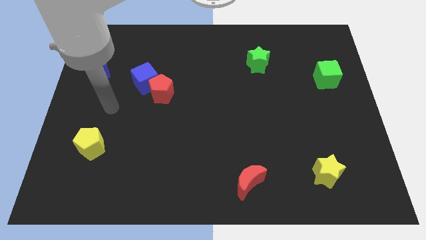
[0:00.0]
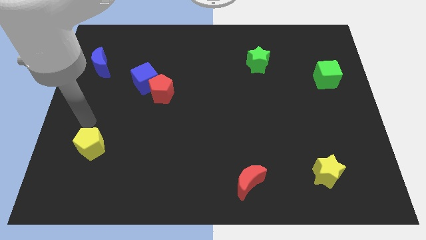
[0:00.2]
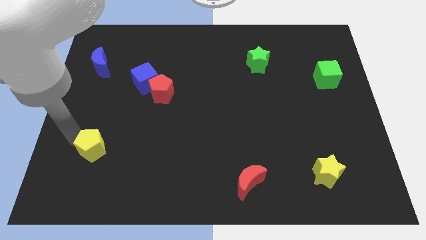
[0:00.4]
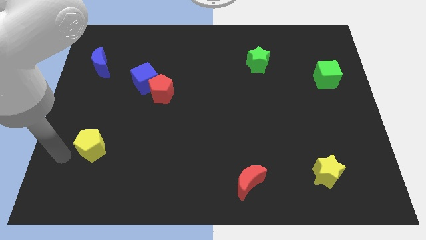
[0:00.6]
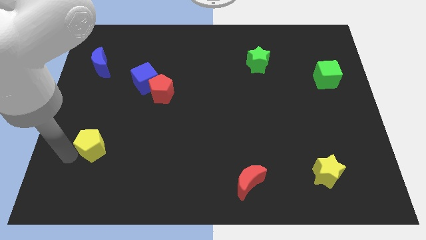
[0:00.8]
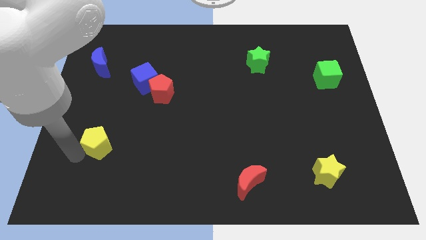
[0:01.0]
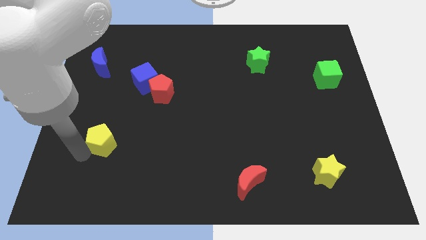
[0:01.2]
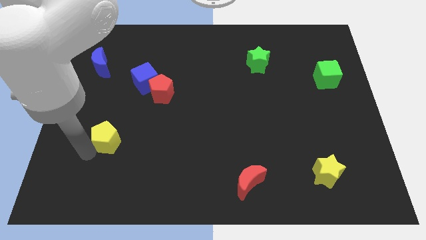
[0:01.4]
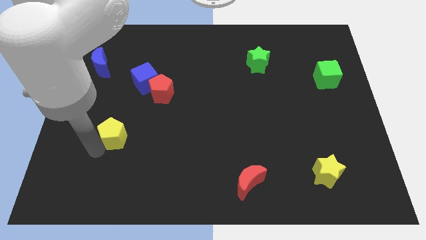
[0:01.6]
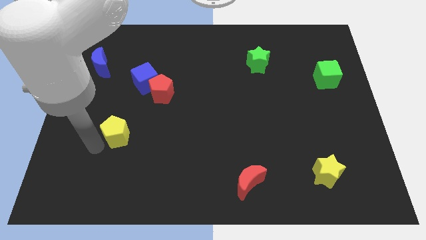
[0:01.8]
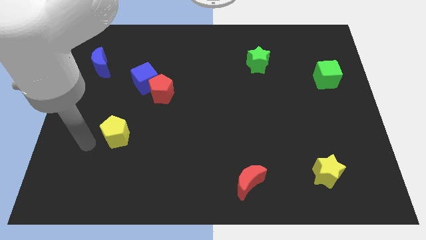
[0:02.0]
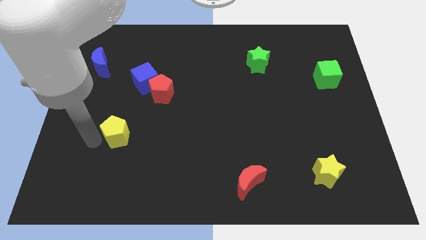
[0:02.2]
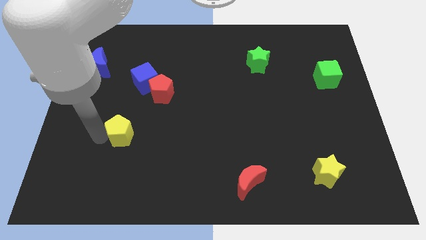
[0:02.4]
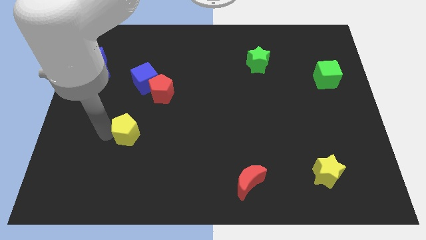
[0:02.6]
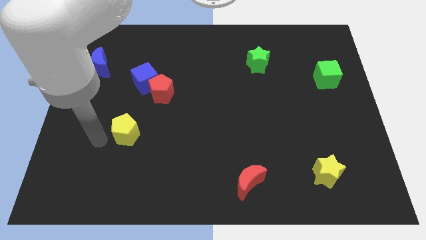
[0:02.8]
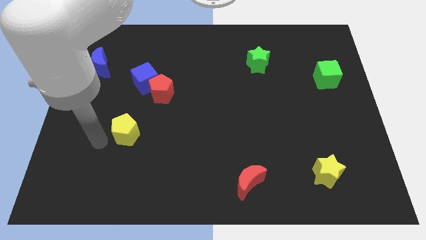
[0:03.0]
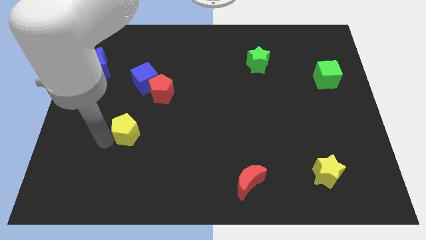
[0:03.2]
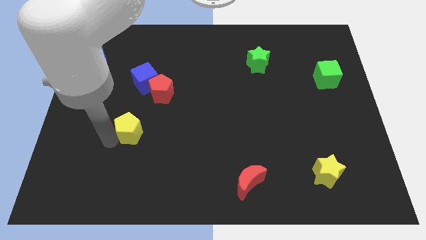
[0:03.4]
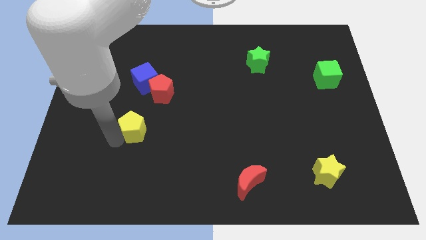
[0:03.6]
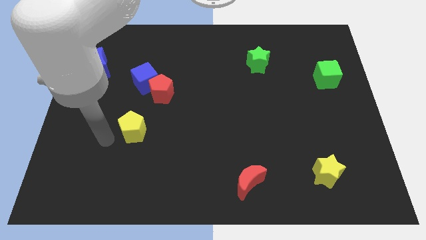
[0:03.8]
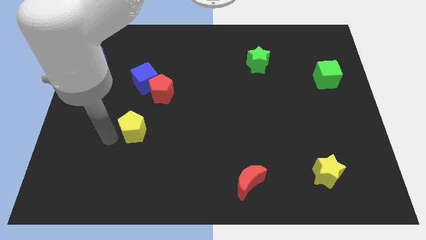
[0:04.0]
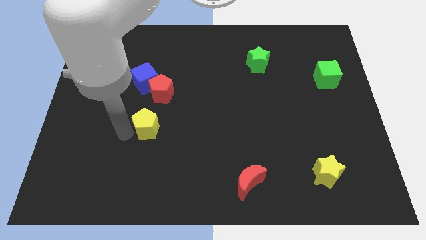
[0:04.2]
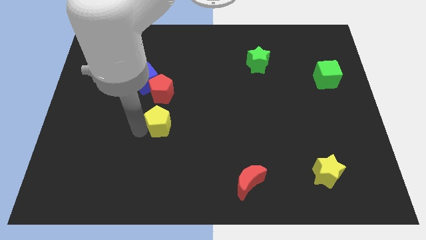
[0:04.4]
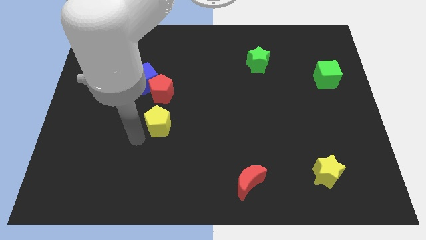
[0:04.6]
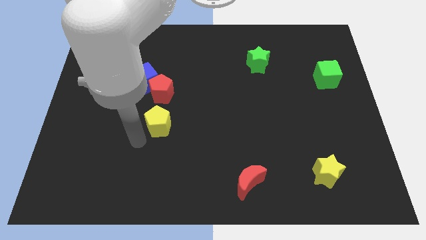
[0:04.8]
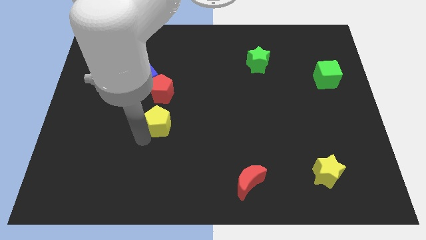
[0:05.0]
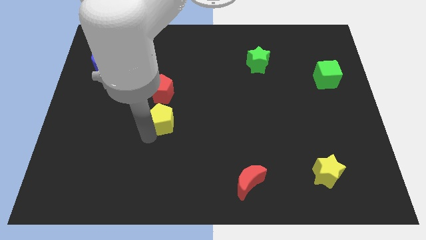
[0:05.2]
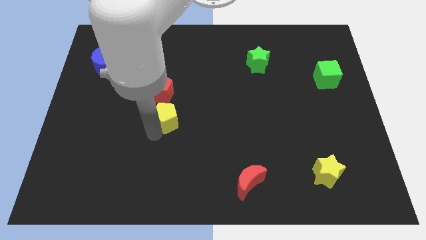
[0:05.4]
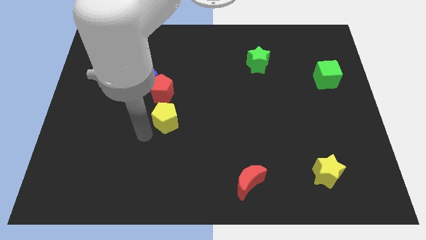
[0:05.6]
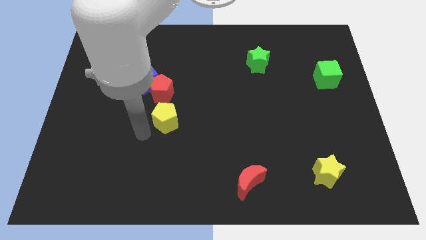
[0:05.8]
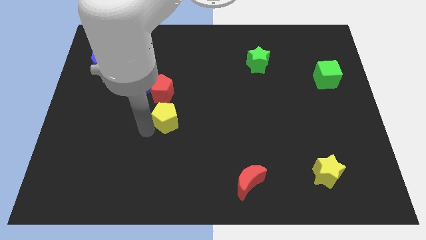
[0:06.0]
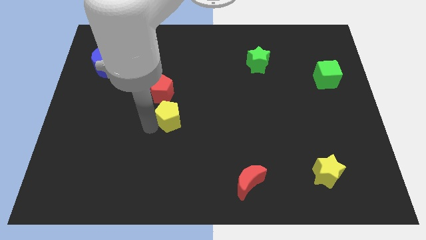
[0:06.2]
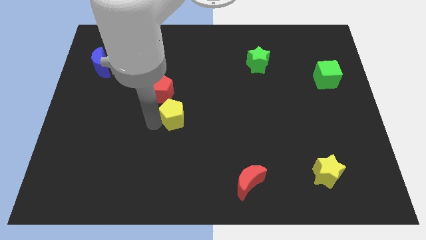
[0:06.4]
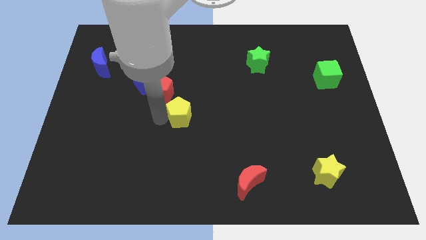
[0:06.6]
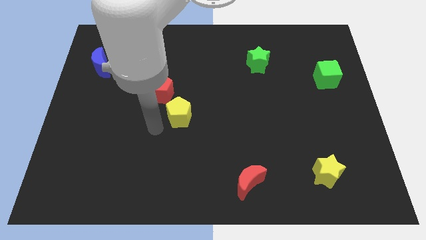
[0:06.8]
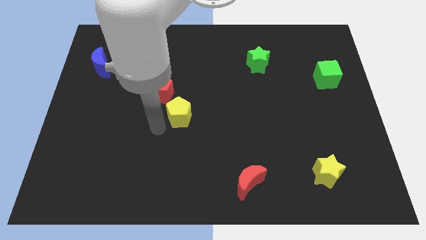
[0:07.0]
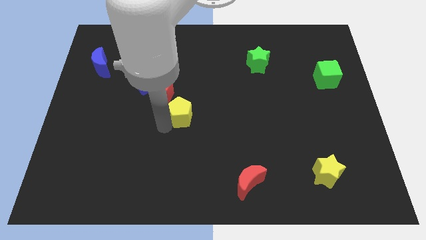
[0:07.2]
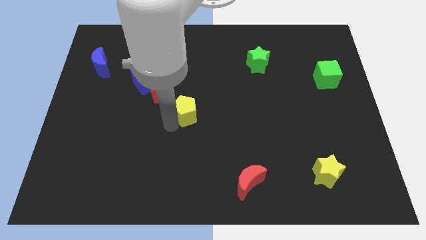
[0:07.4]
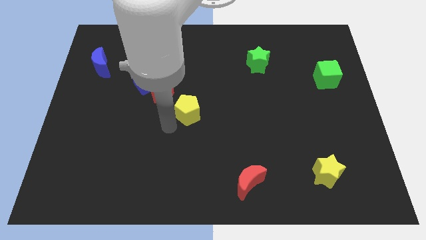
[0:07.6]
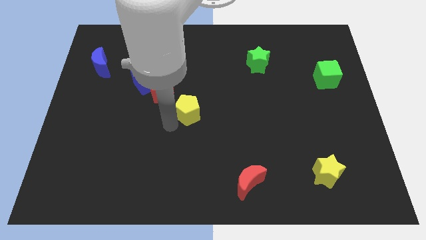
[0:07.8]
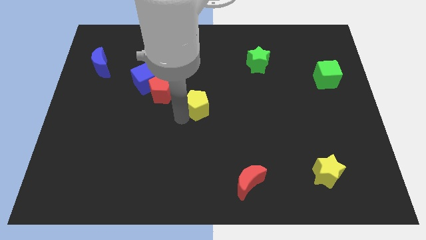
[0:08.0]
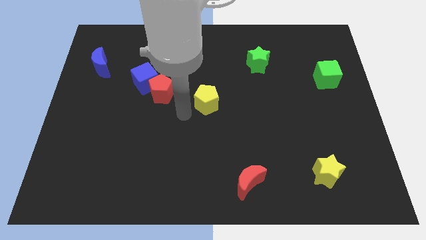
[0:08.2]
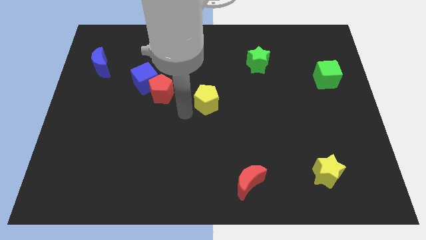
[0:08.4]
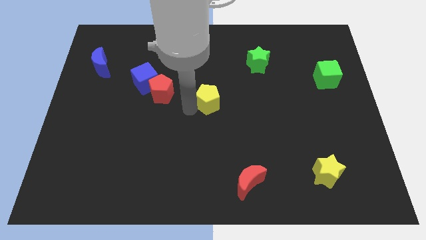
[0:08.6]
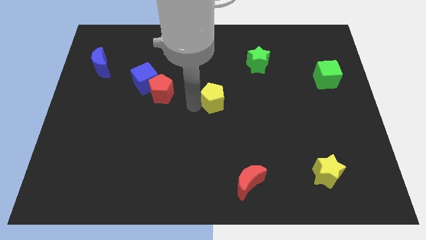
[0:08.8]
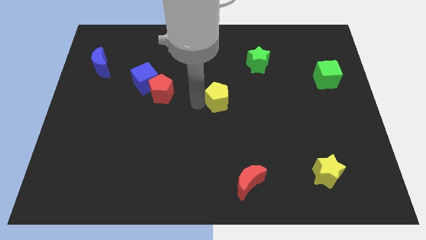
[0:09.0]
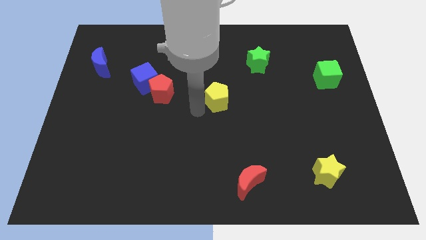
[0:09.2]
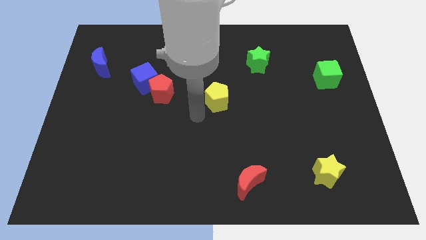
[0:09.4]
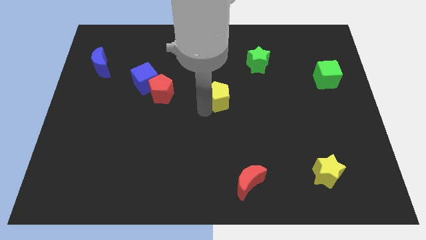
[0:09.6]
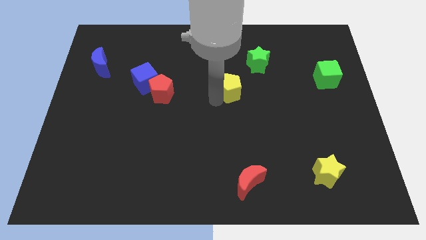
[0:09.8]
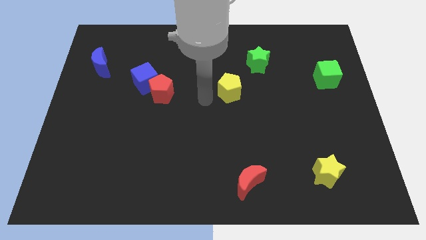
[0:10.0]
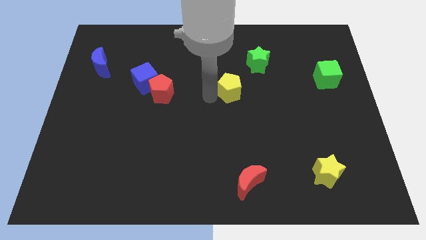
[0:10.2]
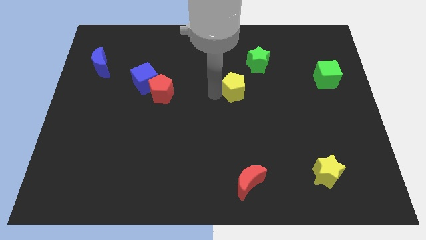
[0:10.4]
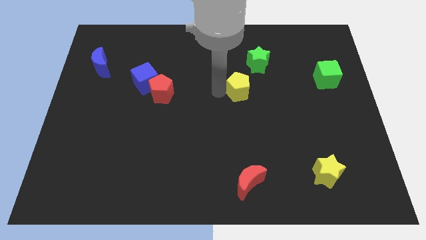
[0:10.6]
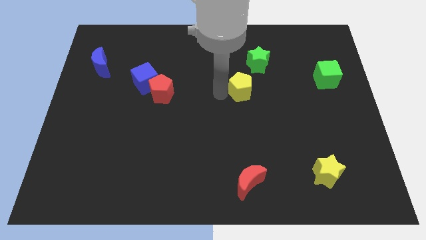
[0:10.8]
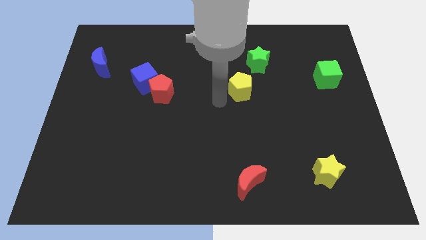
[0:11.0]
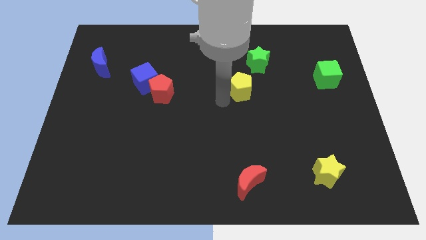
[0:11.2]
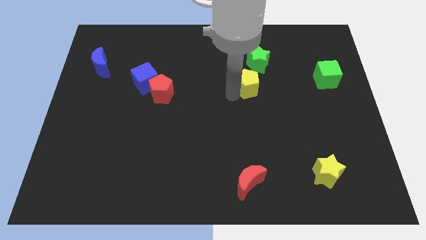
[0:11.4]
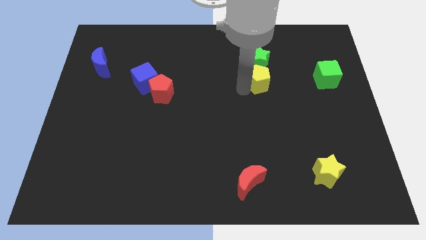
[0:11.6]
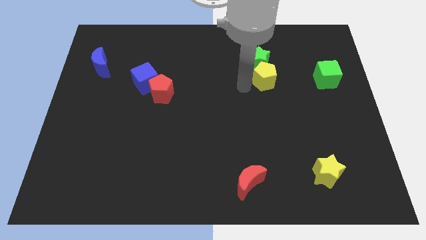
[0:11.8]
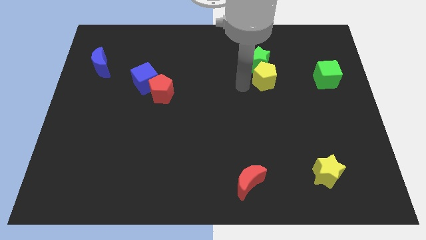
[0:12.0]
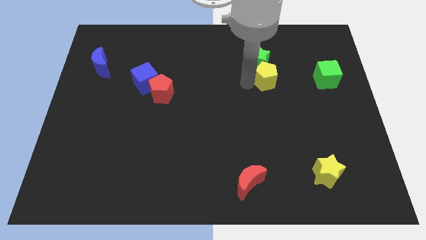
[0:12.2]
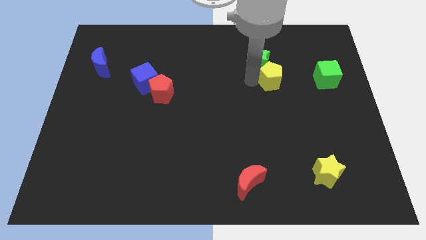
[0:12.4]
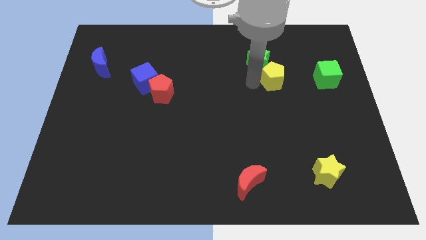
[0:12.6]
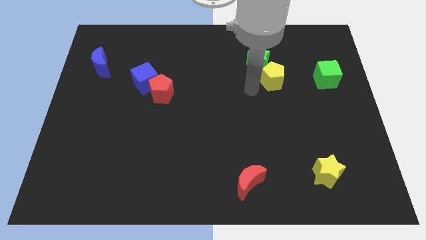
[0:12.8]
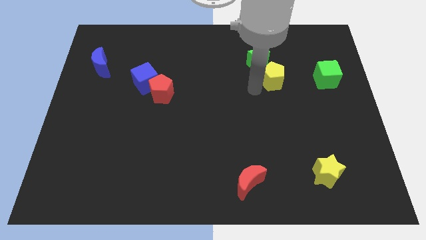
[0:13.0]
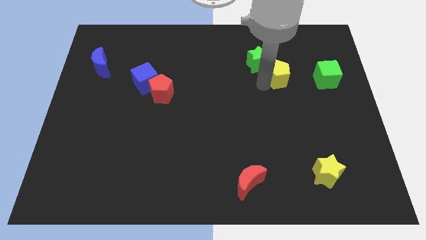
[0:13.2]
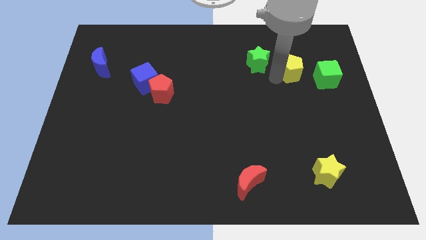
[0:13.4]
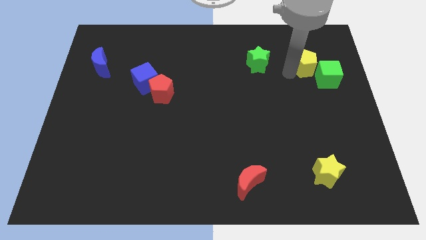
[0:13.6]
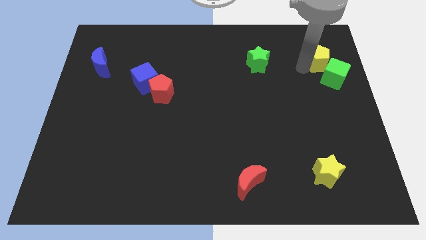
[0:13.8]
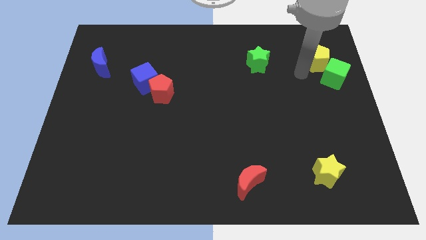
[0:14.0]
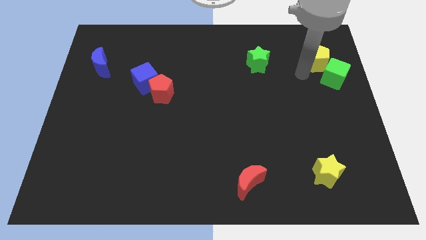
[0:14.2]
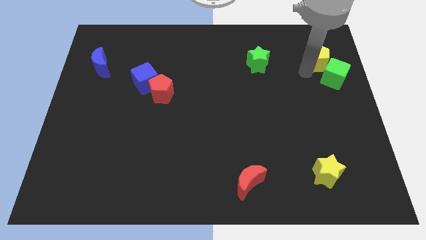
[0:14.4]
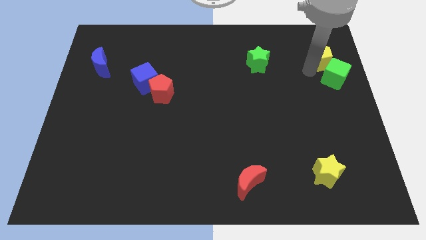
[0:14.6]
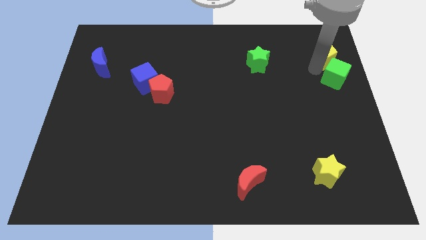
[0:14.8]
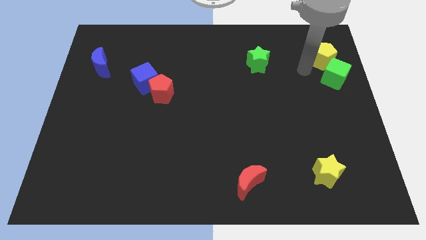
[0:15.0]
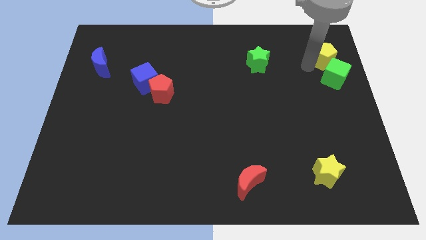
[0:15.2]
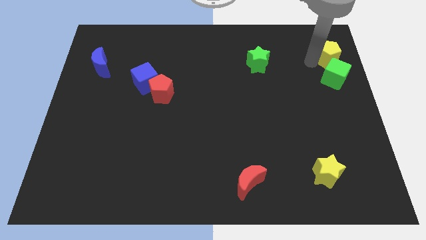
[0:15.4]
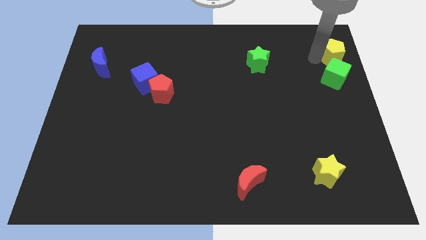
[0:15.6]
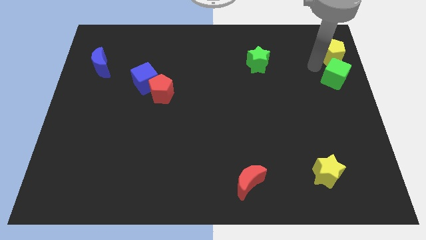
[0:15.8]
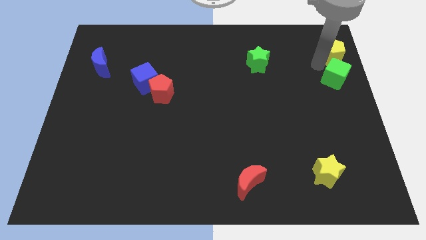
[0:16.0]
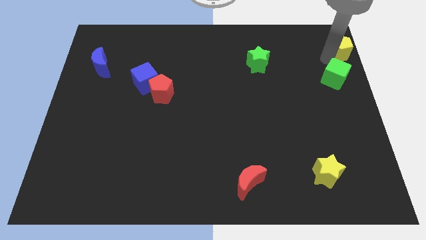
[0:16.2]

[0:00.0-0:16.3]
slide the yellow pentagon to the top right of the board
